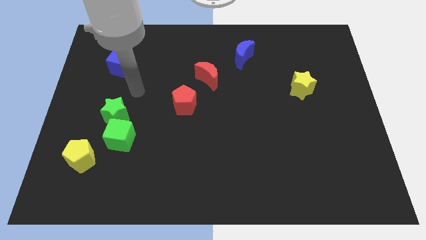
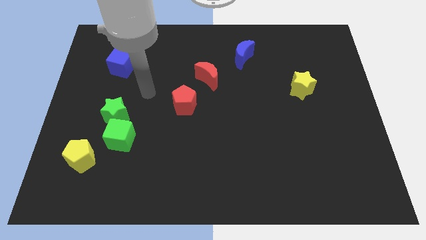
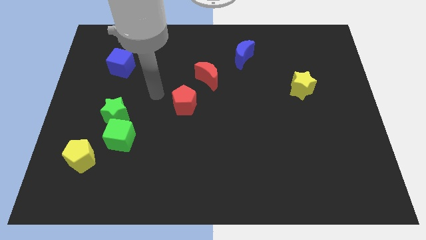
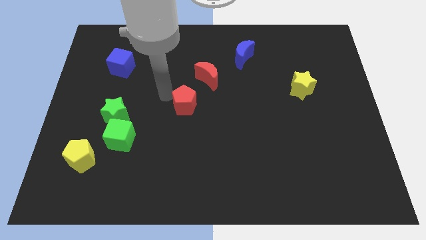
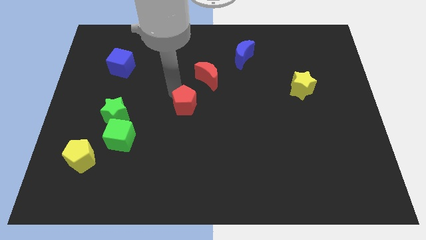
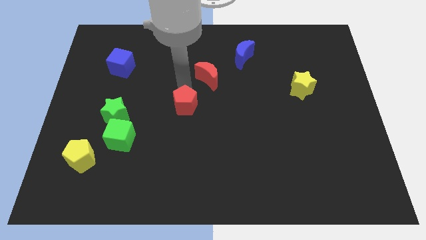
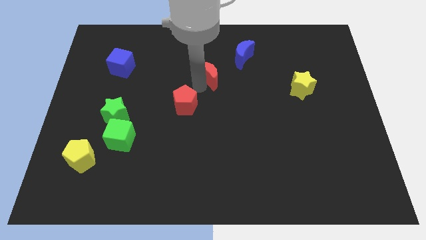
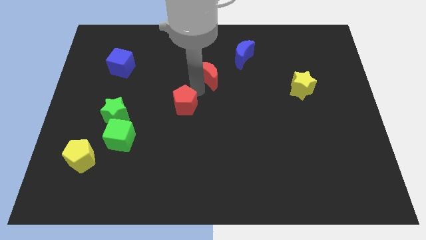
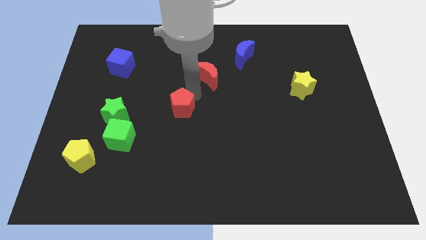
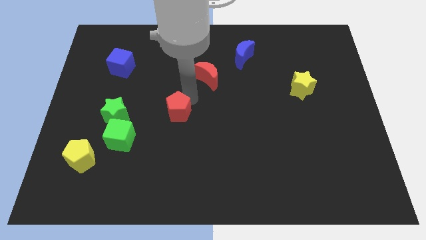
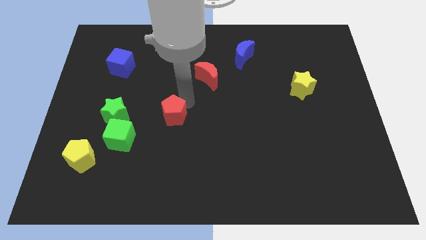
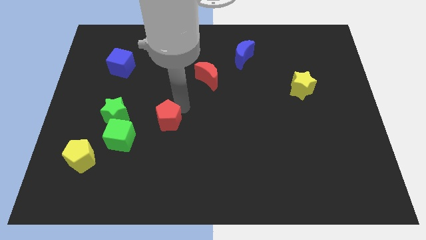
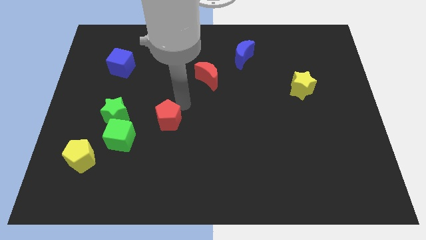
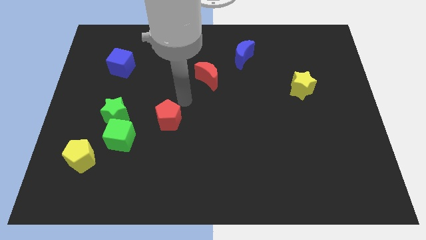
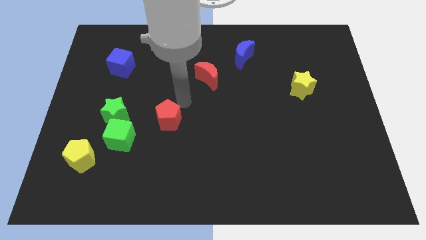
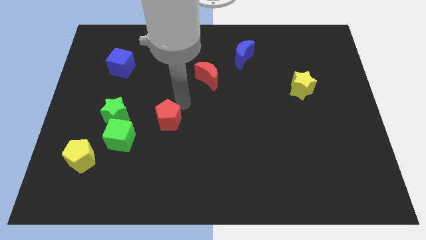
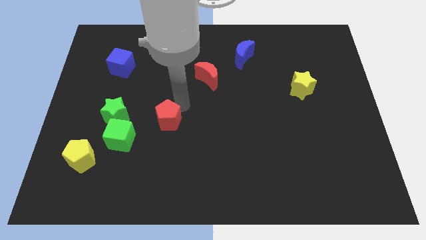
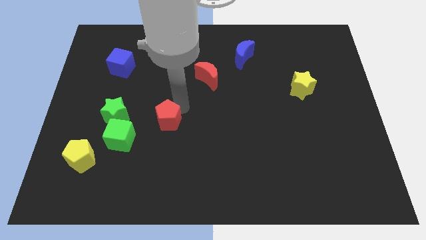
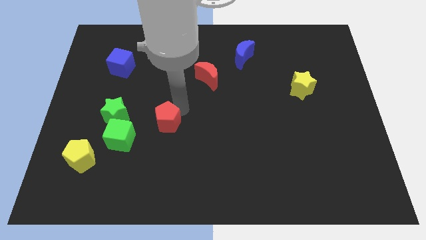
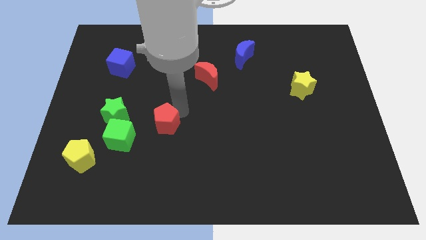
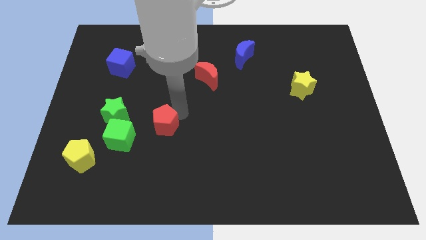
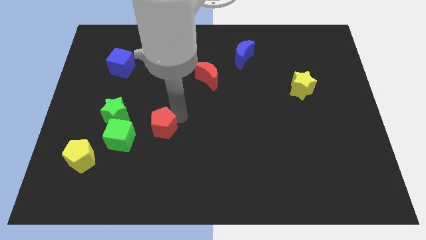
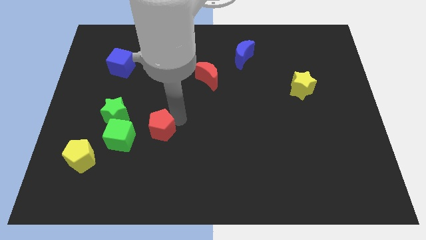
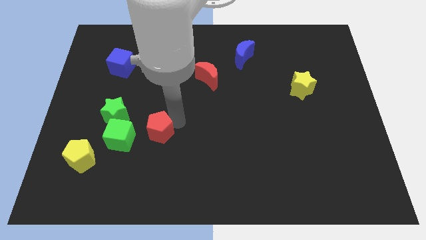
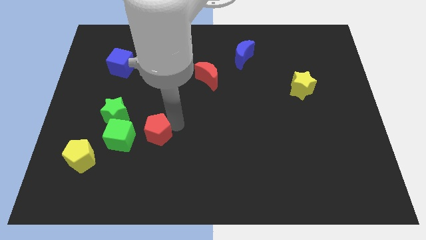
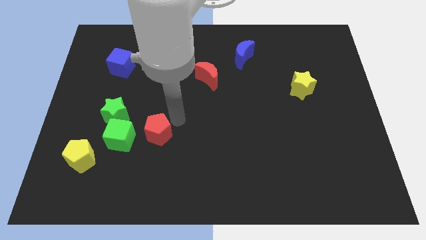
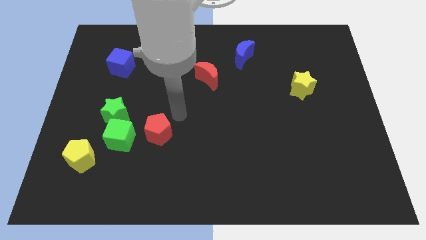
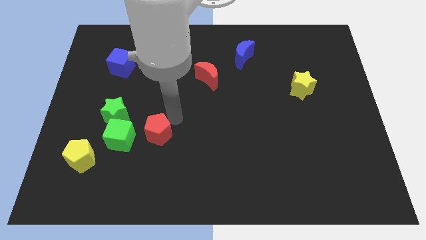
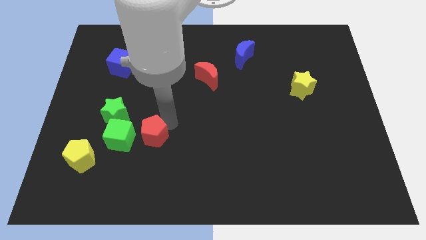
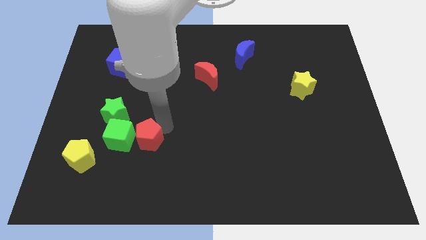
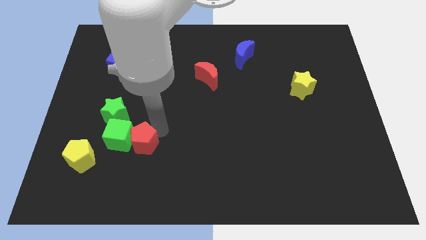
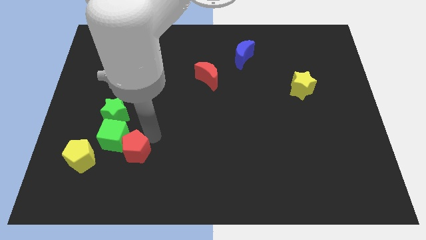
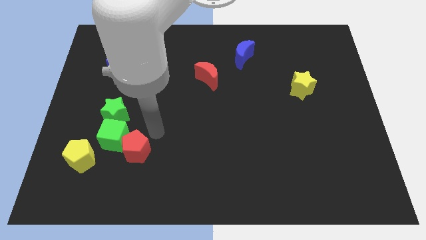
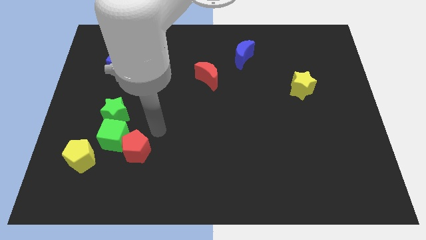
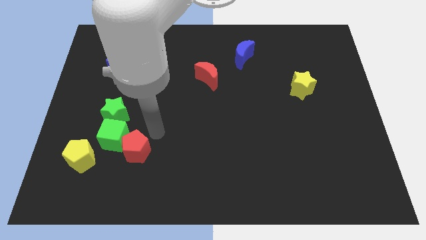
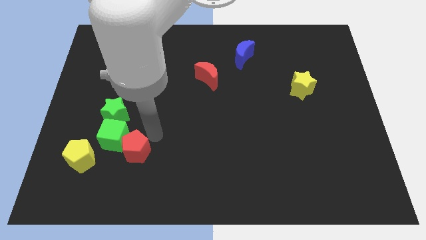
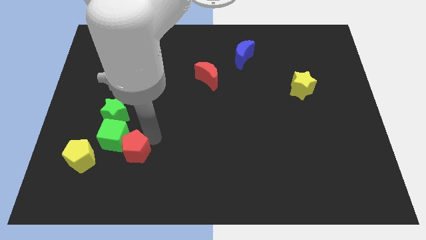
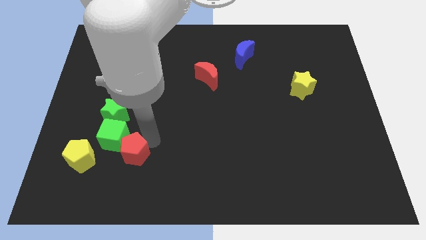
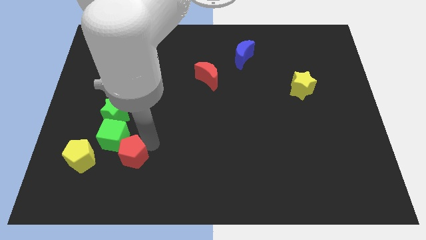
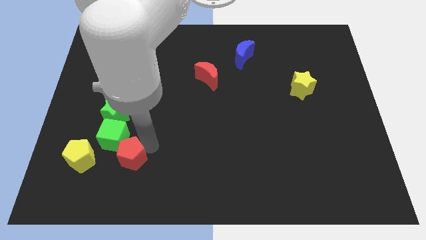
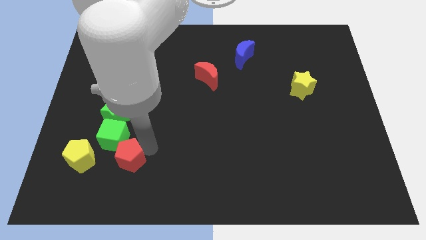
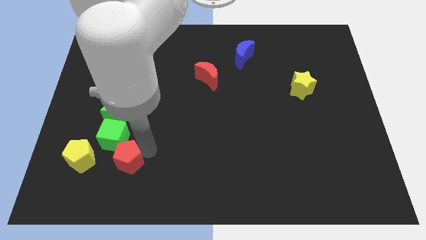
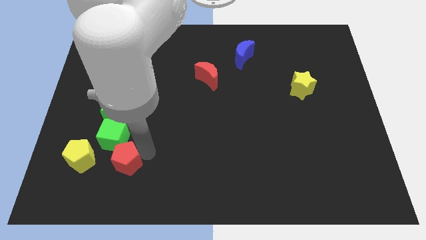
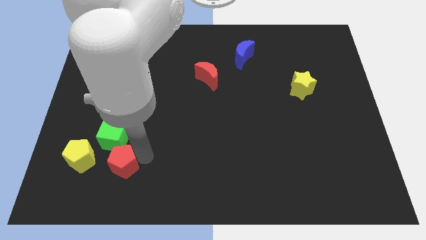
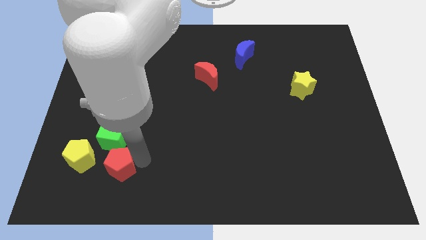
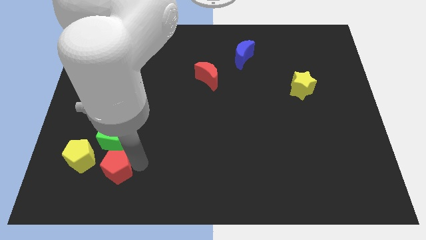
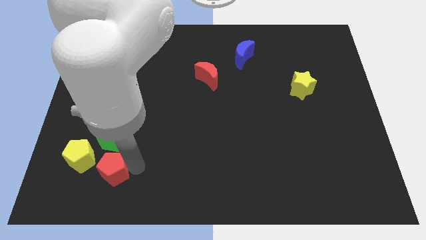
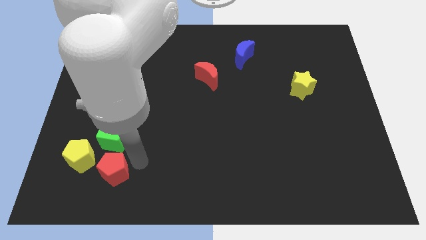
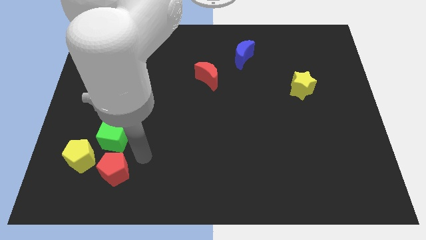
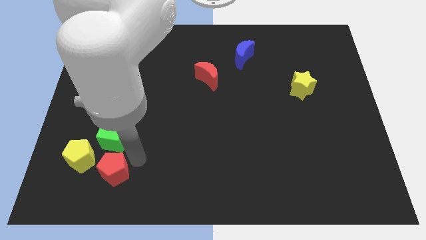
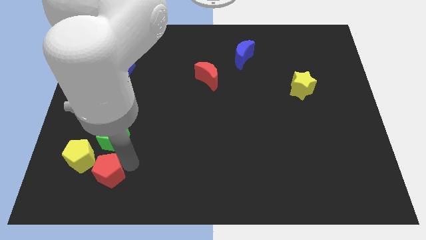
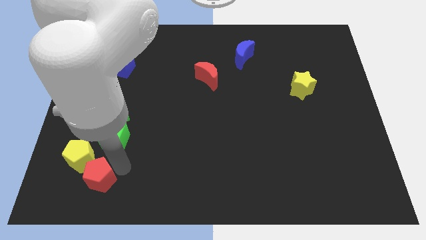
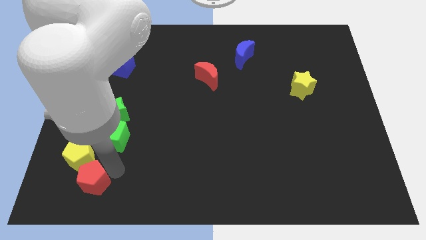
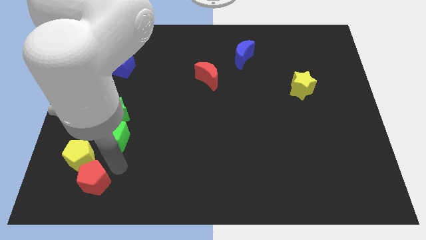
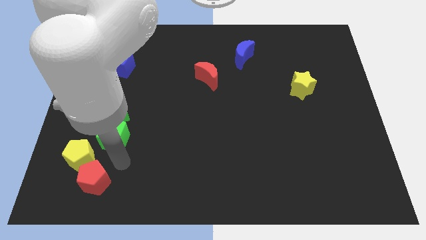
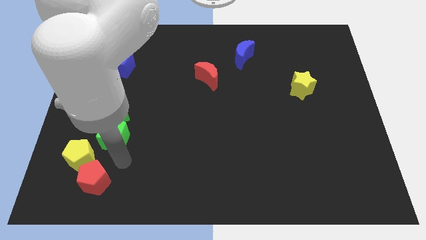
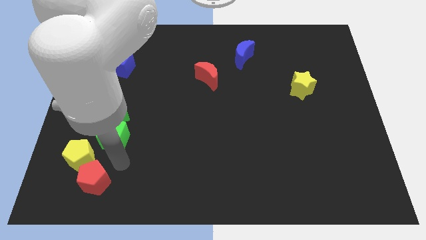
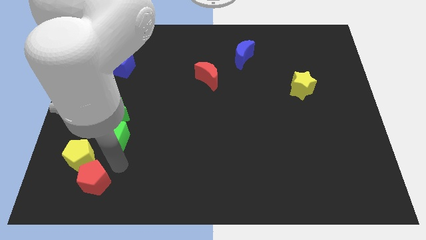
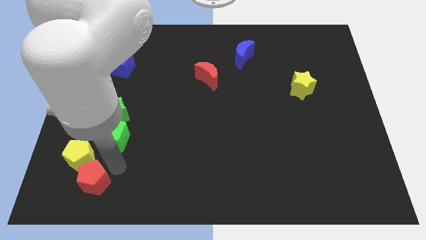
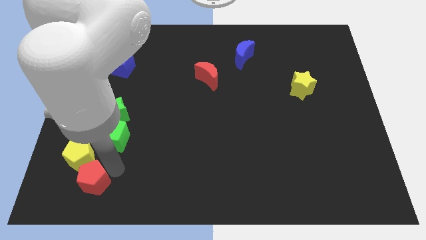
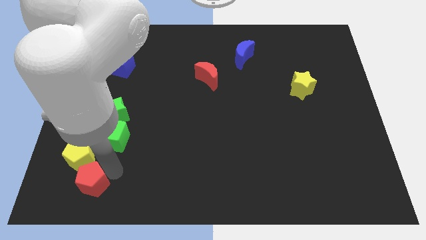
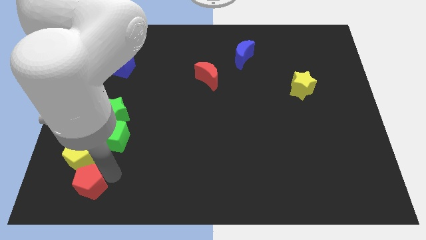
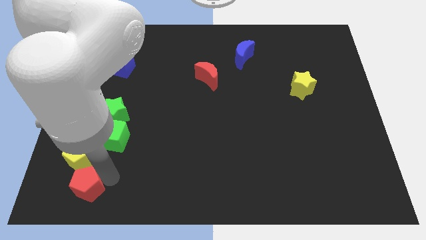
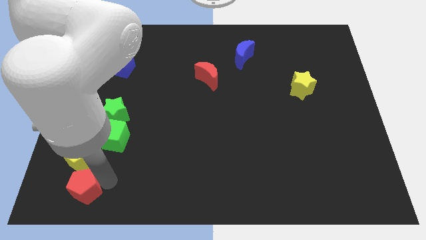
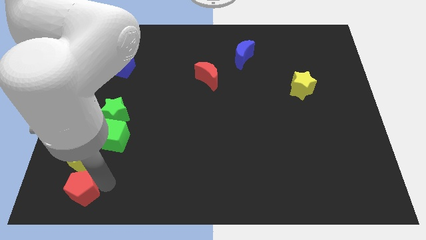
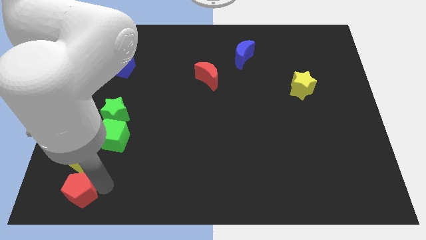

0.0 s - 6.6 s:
move the red pentagon to the lower left corner
